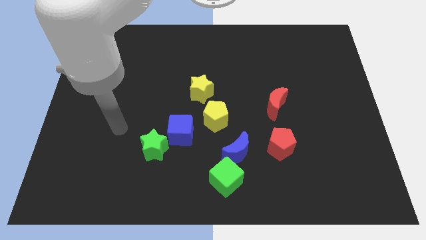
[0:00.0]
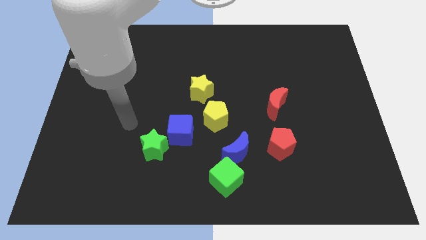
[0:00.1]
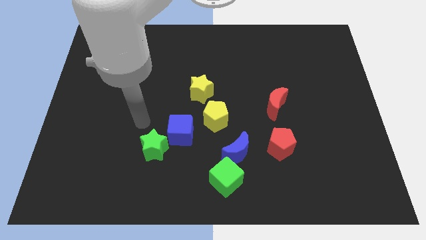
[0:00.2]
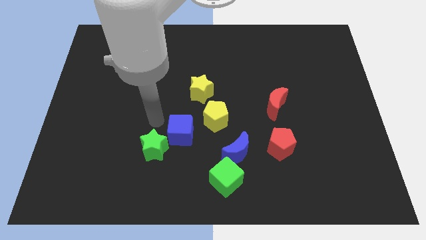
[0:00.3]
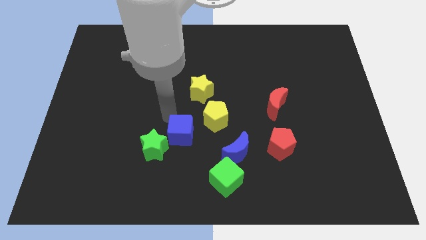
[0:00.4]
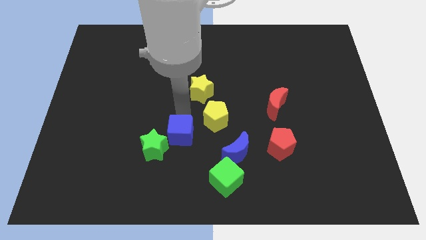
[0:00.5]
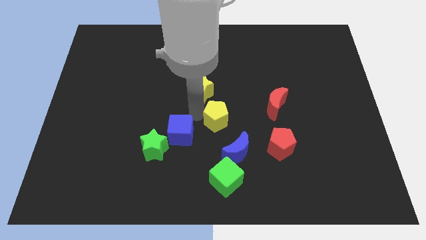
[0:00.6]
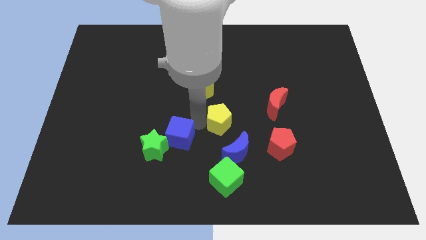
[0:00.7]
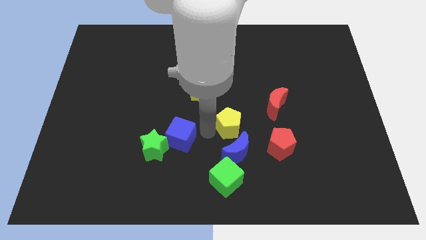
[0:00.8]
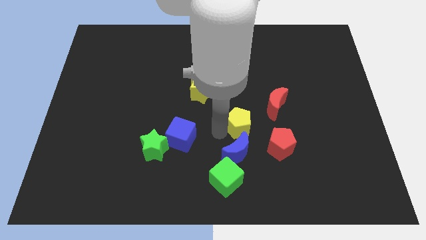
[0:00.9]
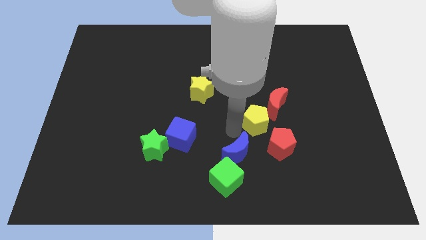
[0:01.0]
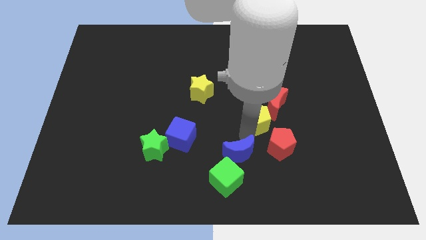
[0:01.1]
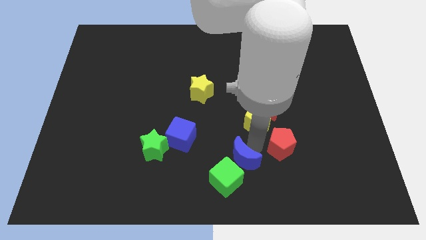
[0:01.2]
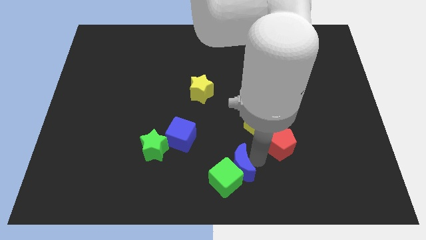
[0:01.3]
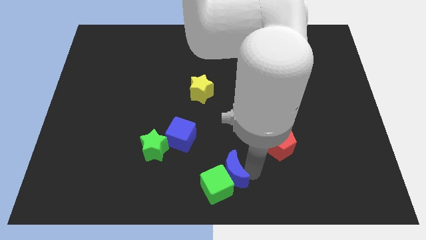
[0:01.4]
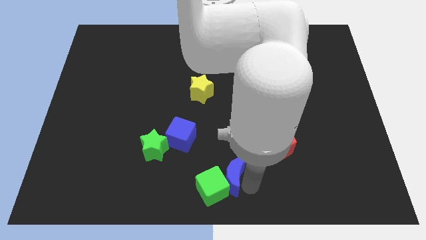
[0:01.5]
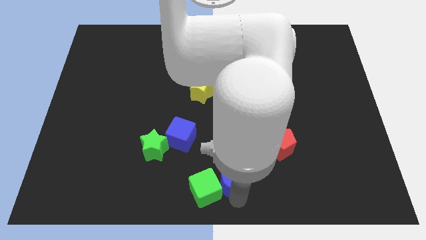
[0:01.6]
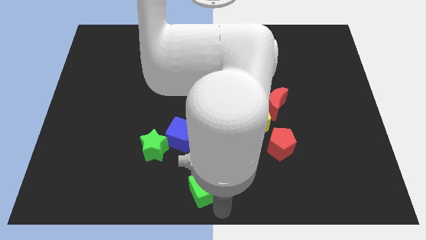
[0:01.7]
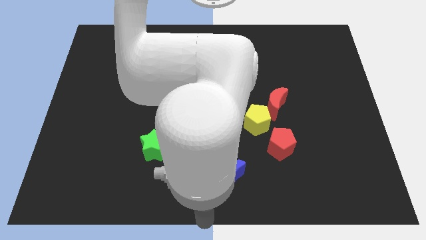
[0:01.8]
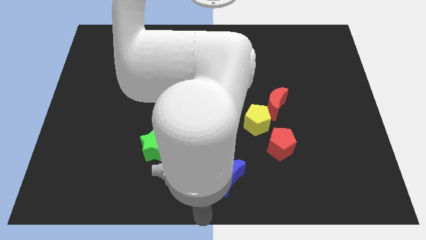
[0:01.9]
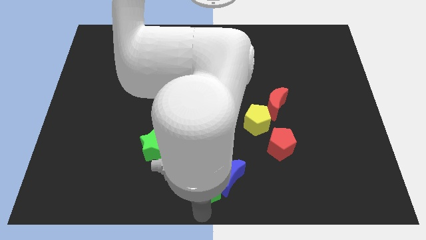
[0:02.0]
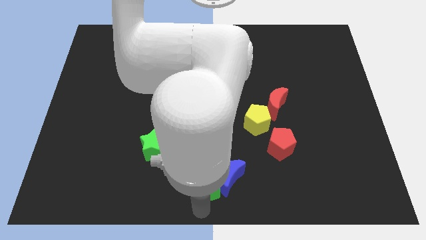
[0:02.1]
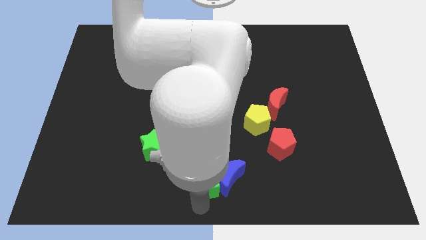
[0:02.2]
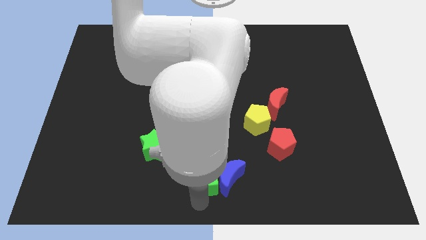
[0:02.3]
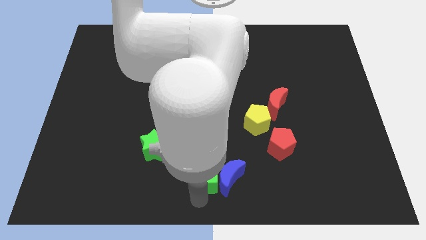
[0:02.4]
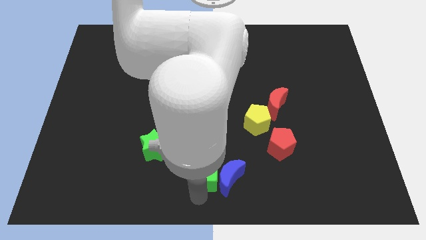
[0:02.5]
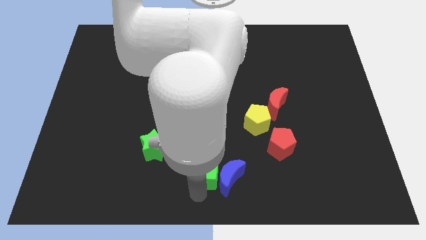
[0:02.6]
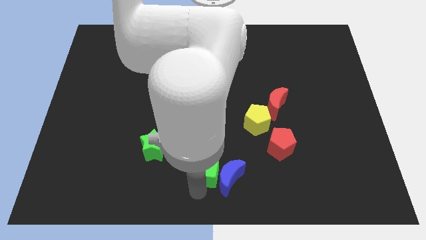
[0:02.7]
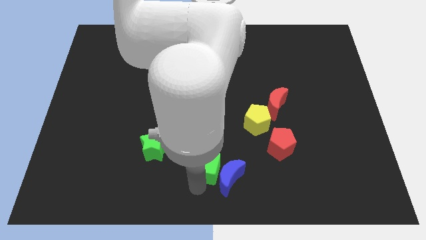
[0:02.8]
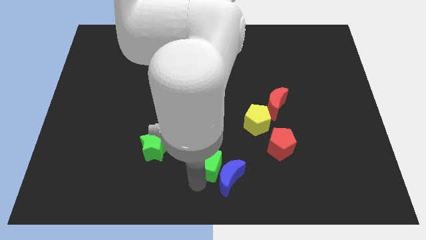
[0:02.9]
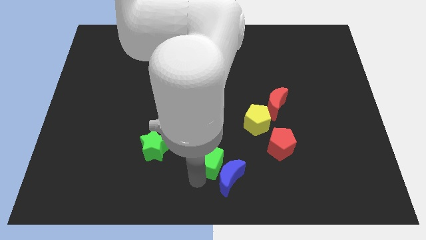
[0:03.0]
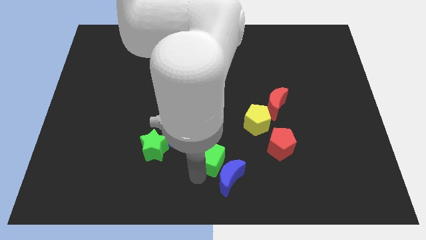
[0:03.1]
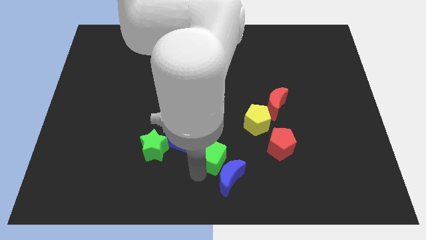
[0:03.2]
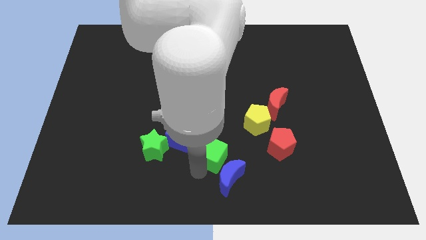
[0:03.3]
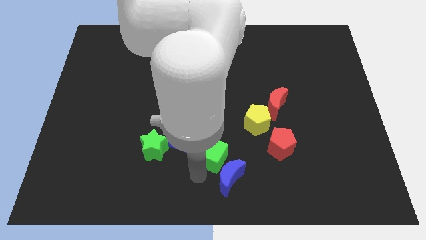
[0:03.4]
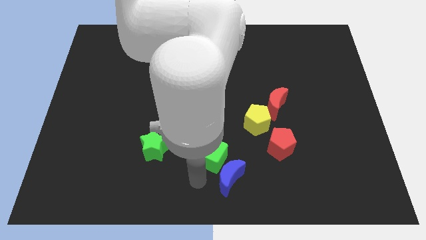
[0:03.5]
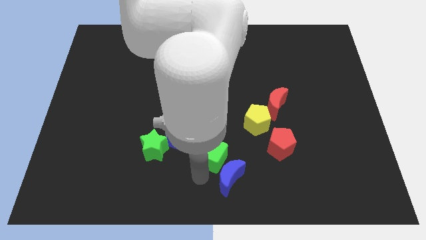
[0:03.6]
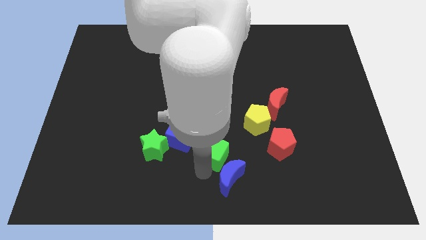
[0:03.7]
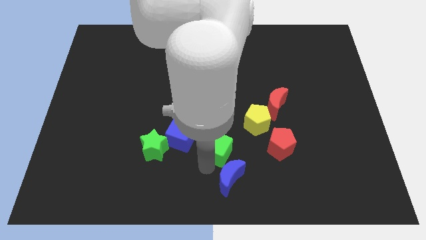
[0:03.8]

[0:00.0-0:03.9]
slightly slide the green cube upwards

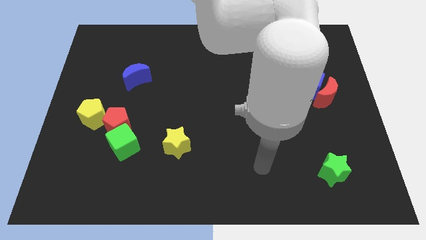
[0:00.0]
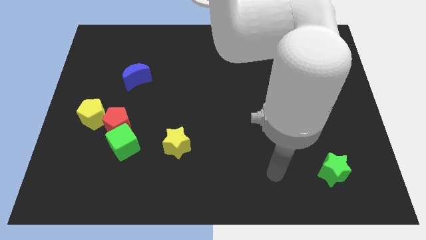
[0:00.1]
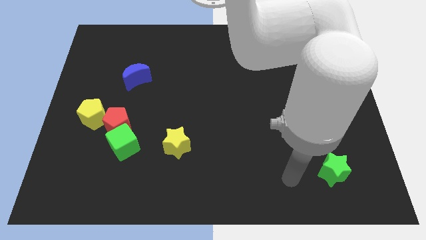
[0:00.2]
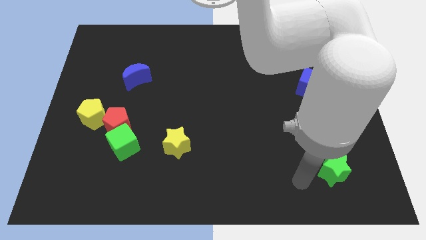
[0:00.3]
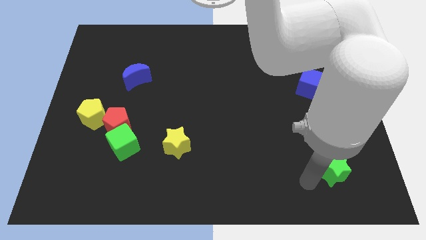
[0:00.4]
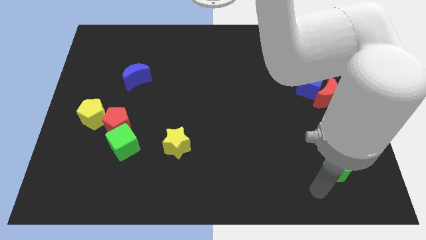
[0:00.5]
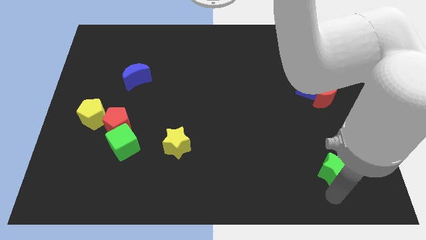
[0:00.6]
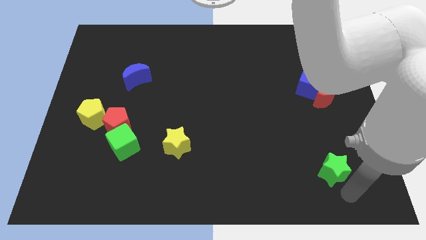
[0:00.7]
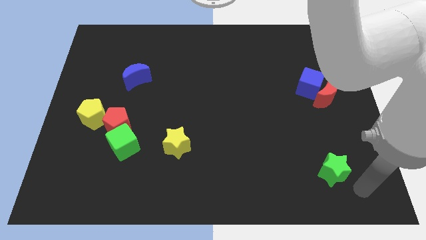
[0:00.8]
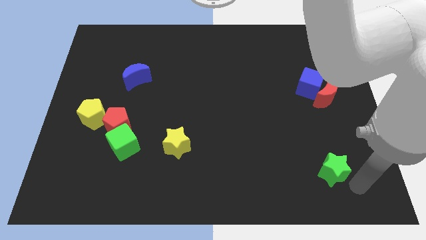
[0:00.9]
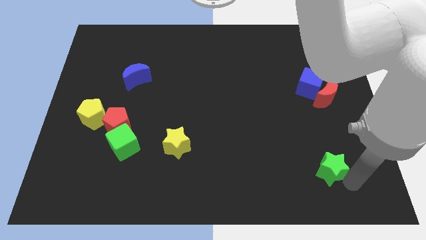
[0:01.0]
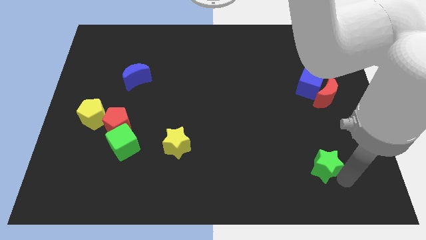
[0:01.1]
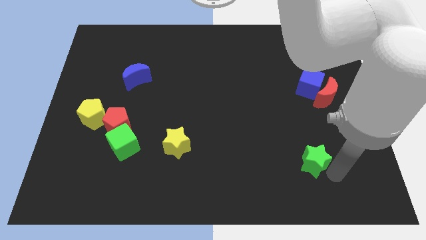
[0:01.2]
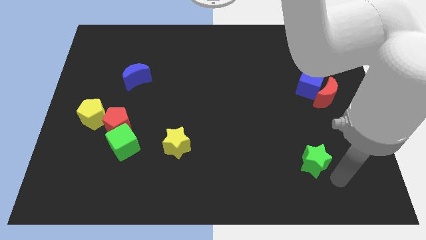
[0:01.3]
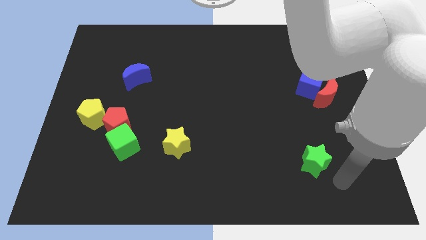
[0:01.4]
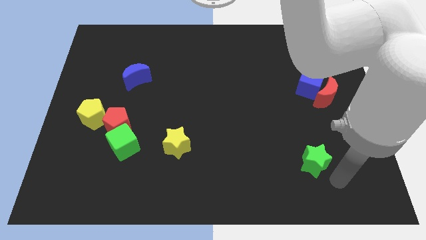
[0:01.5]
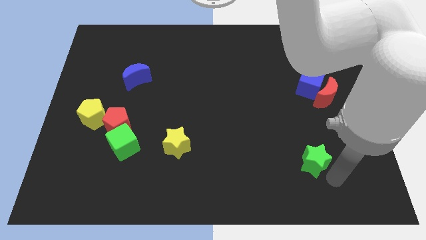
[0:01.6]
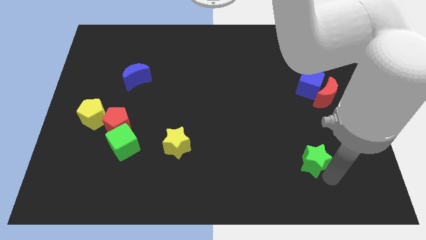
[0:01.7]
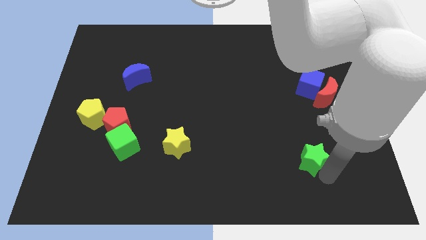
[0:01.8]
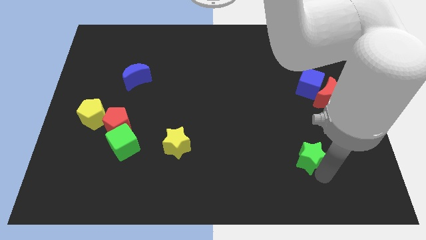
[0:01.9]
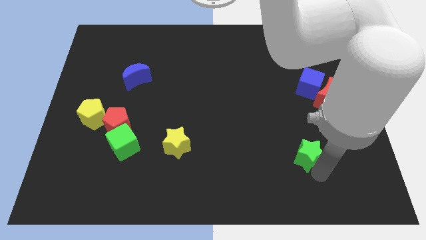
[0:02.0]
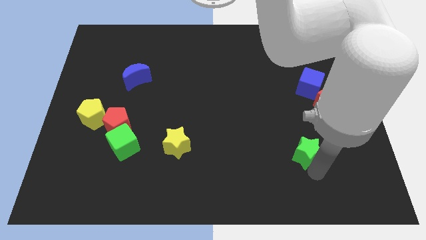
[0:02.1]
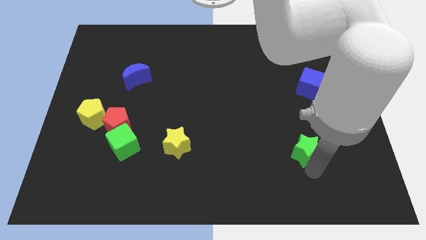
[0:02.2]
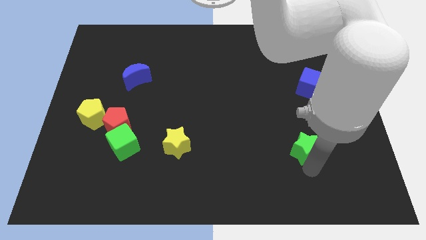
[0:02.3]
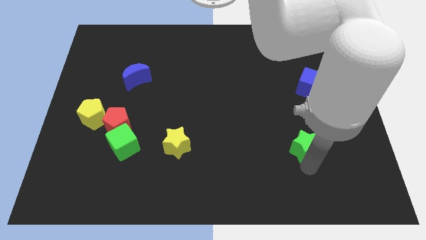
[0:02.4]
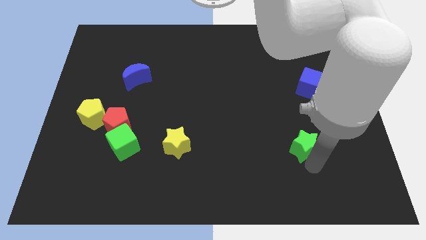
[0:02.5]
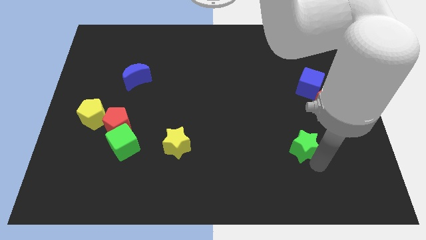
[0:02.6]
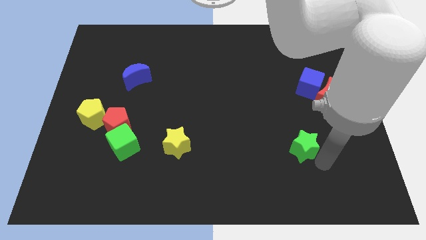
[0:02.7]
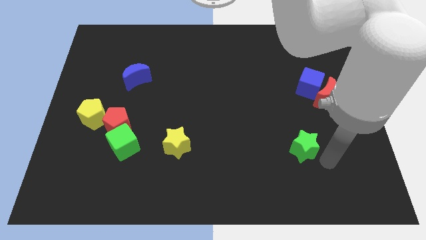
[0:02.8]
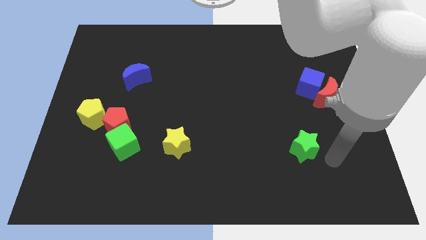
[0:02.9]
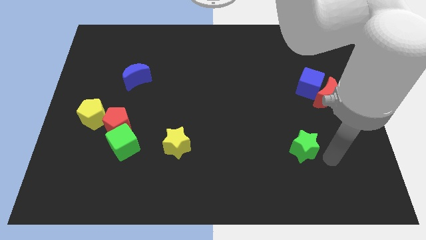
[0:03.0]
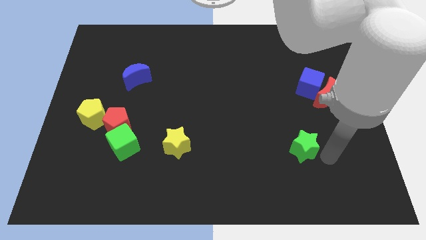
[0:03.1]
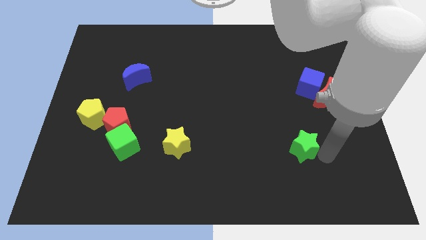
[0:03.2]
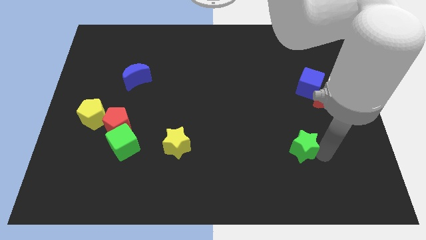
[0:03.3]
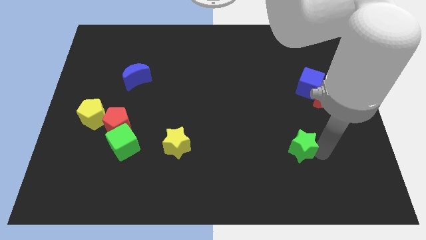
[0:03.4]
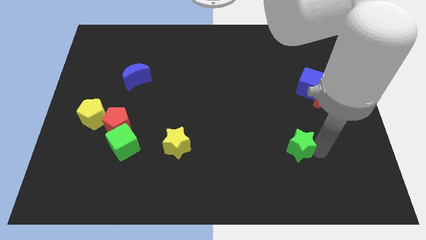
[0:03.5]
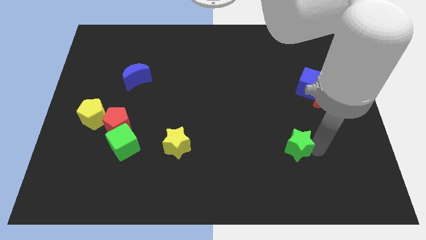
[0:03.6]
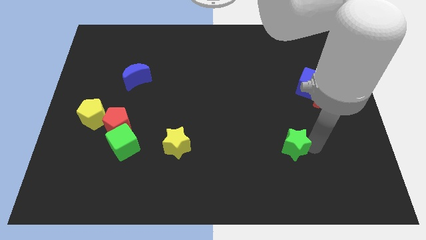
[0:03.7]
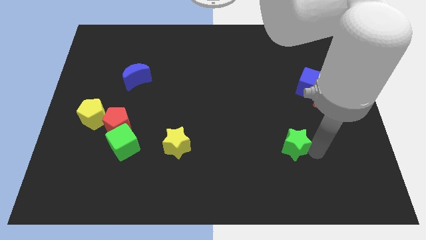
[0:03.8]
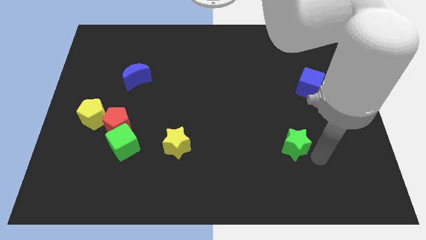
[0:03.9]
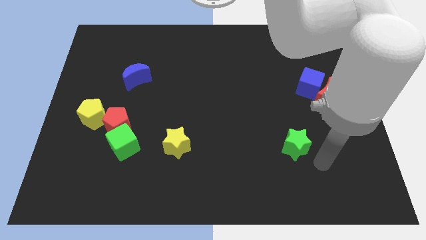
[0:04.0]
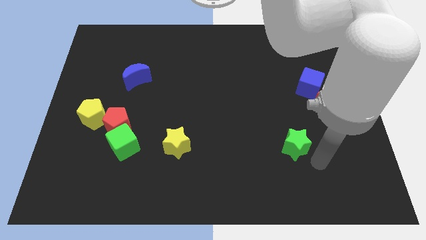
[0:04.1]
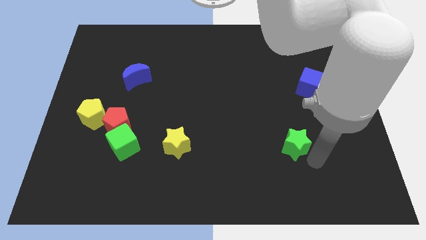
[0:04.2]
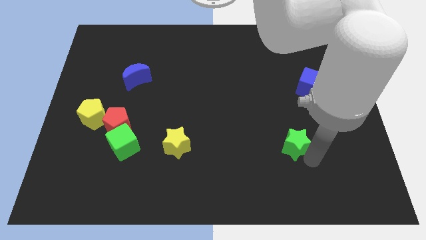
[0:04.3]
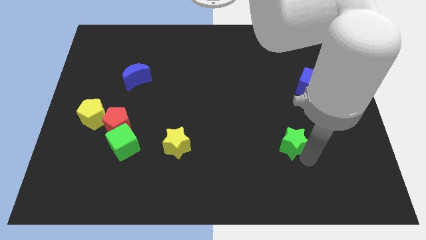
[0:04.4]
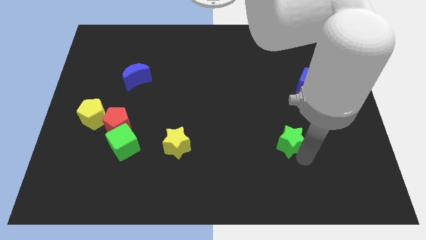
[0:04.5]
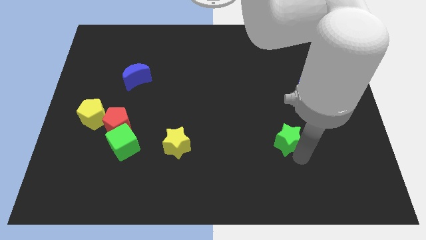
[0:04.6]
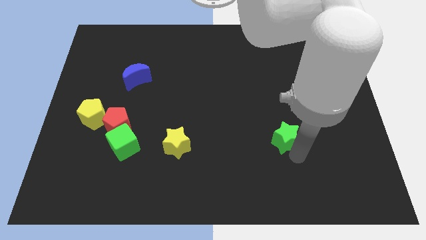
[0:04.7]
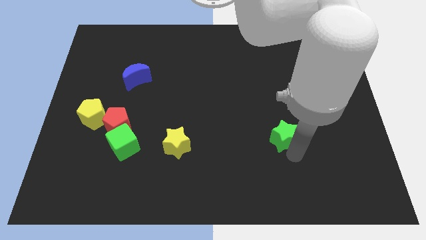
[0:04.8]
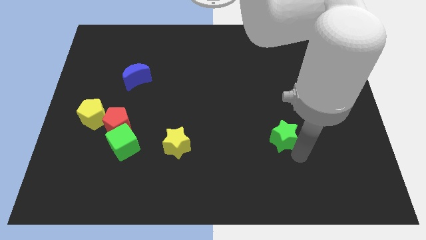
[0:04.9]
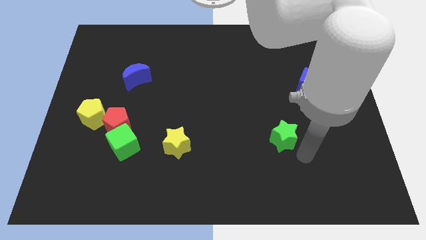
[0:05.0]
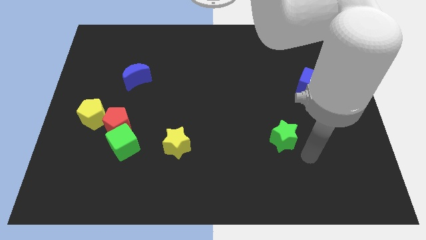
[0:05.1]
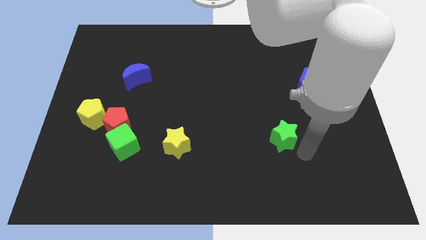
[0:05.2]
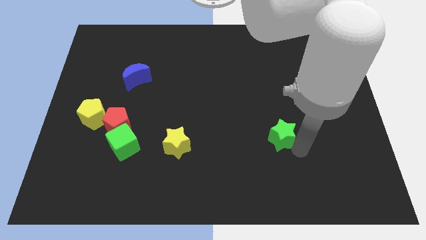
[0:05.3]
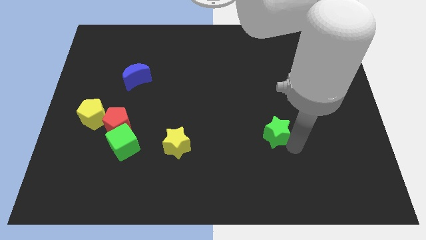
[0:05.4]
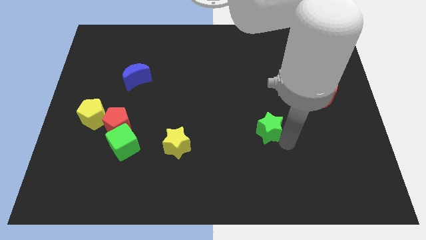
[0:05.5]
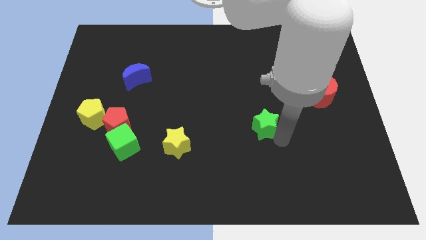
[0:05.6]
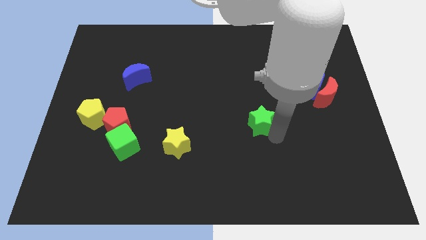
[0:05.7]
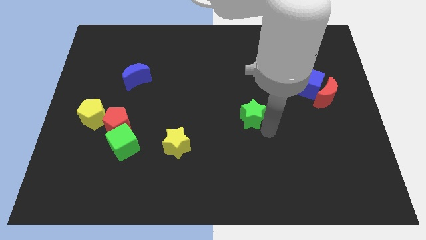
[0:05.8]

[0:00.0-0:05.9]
move the green star up and left diagonally
